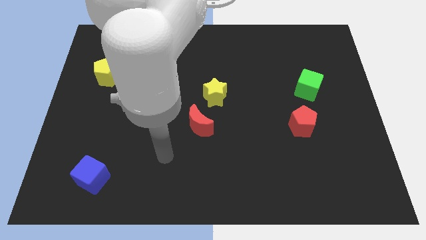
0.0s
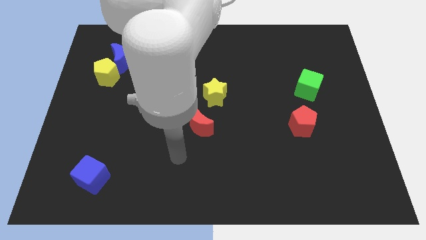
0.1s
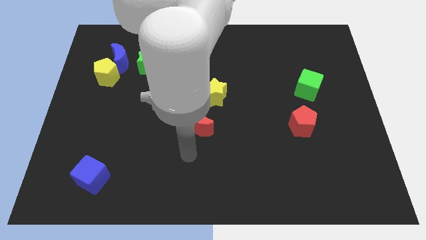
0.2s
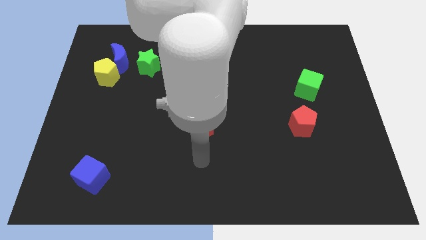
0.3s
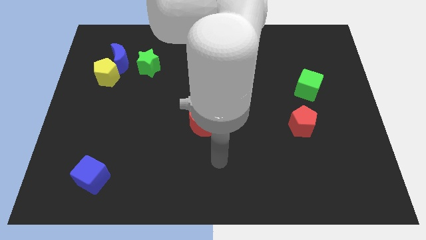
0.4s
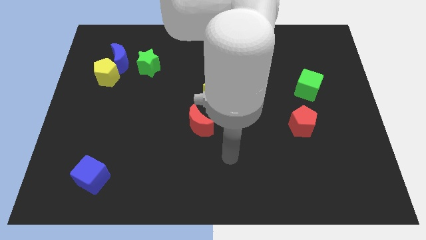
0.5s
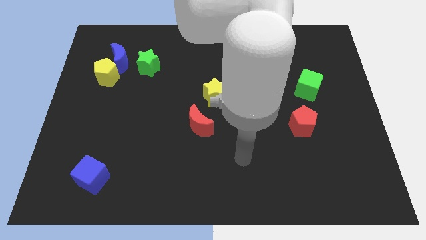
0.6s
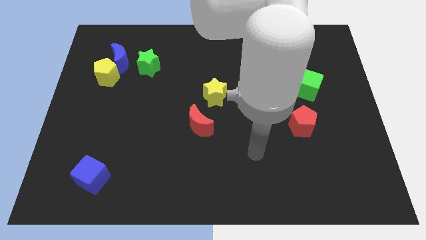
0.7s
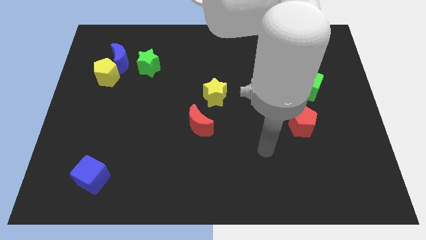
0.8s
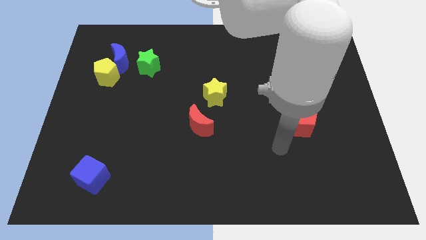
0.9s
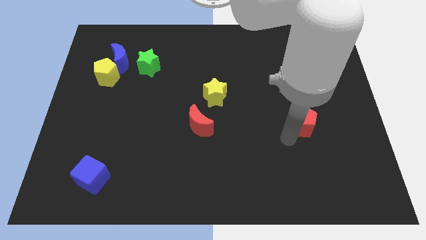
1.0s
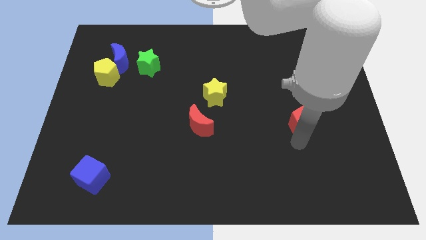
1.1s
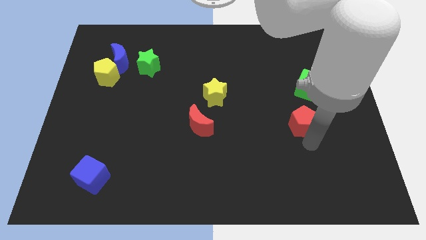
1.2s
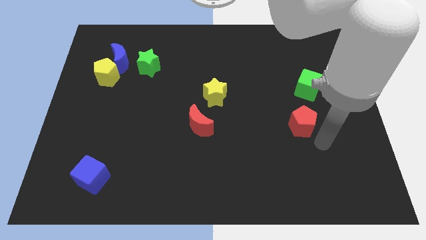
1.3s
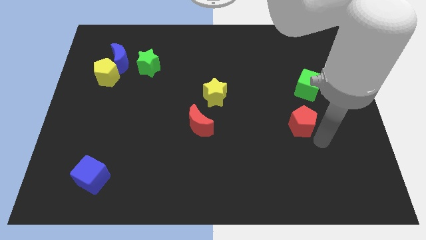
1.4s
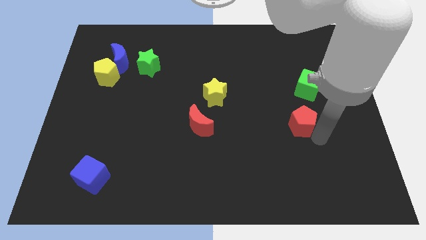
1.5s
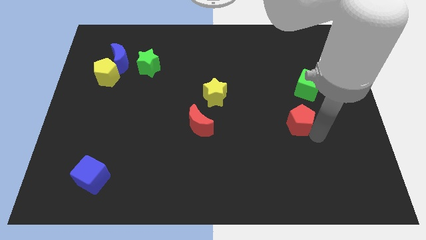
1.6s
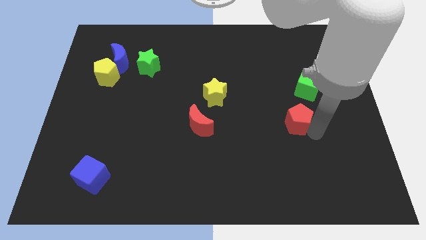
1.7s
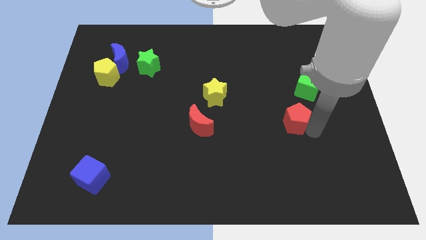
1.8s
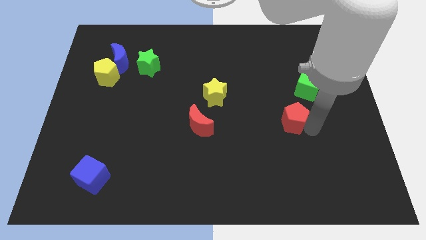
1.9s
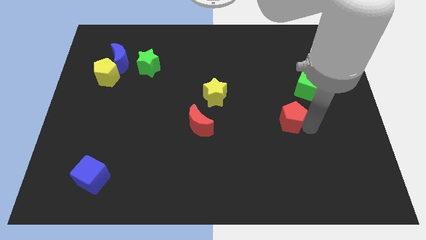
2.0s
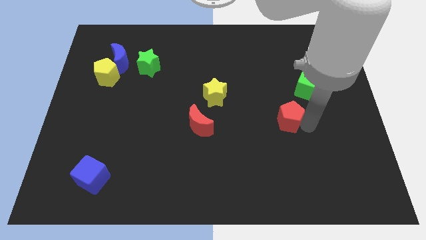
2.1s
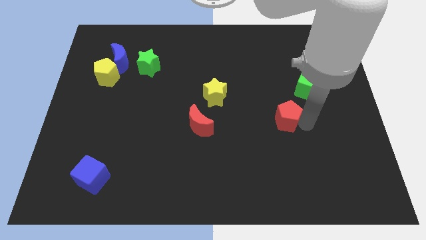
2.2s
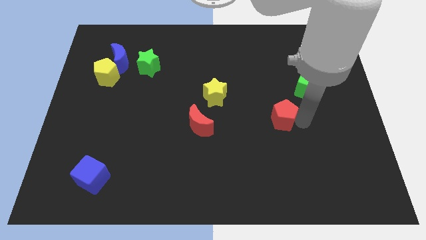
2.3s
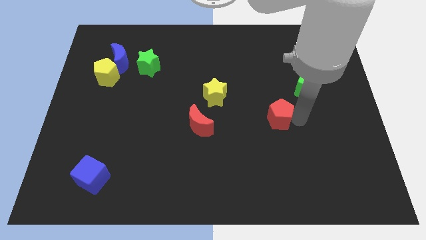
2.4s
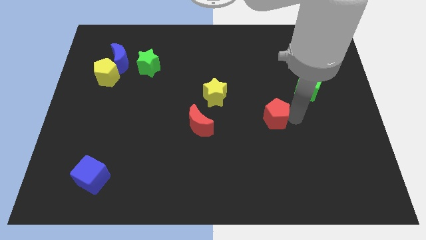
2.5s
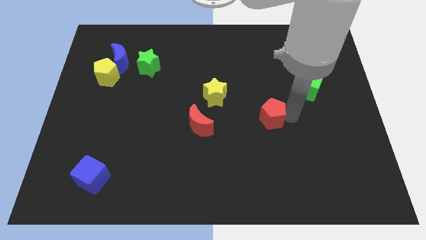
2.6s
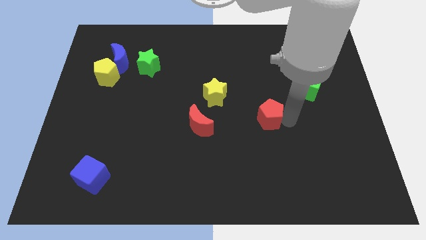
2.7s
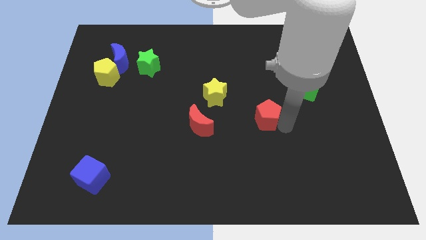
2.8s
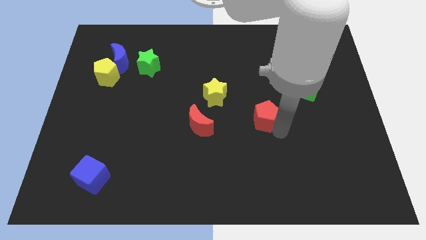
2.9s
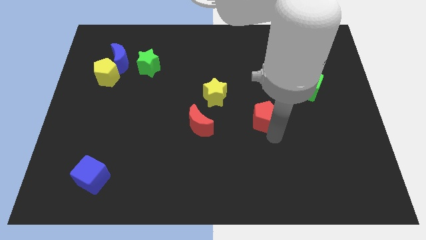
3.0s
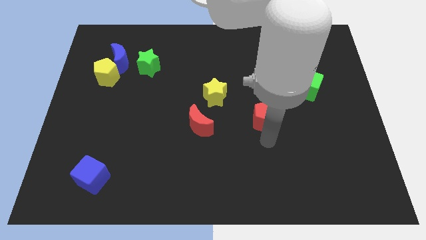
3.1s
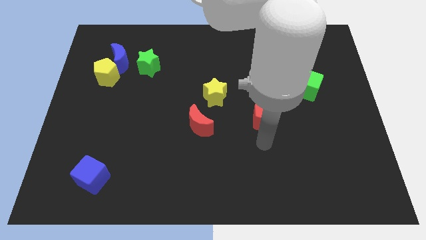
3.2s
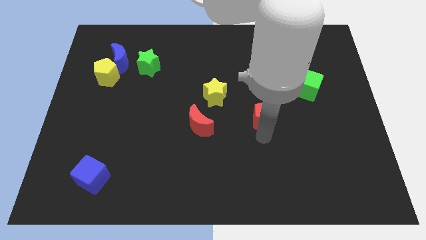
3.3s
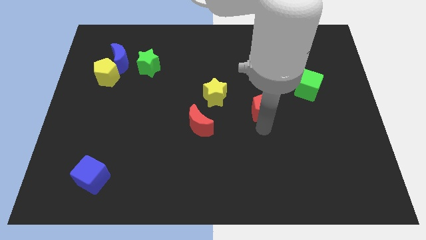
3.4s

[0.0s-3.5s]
push the red pentagon diagonally upwards and left a little bit

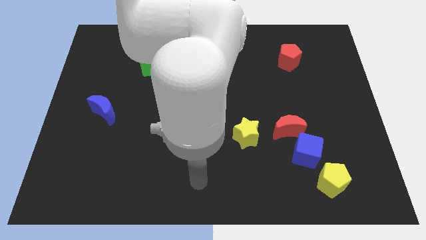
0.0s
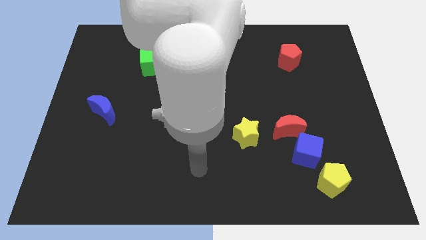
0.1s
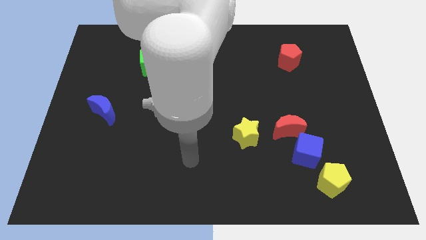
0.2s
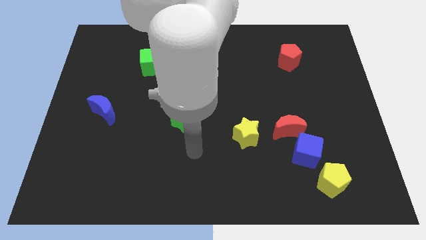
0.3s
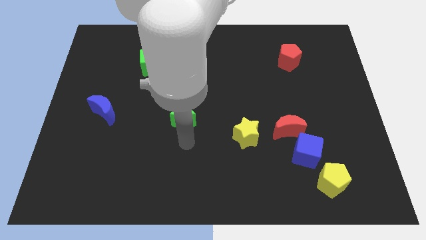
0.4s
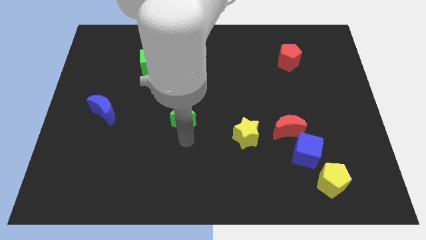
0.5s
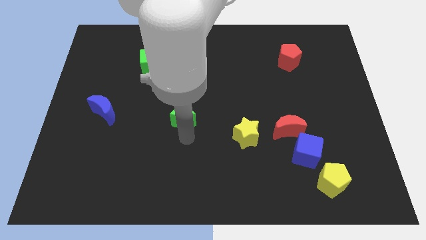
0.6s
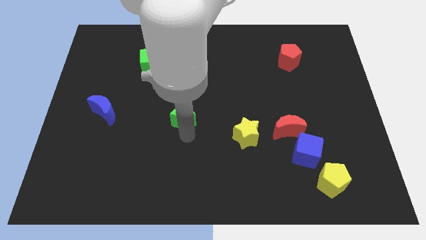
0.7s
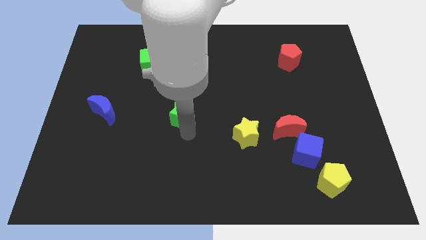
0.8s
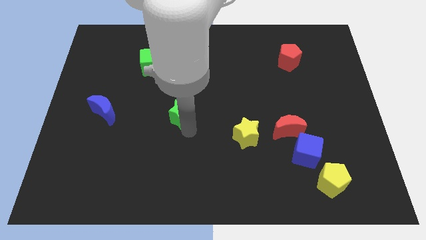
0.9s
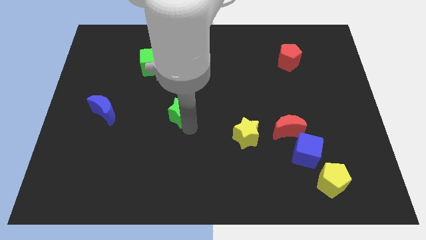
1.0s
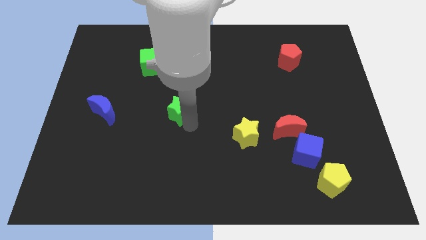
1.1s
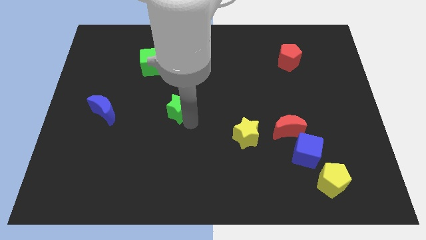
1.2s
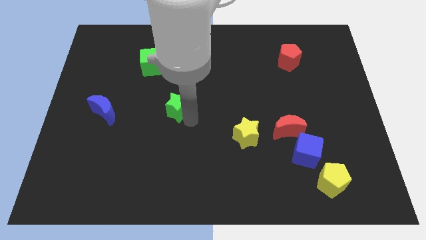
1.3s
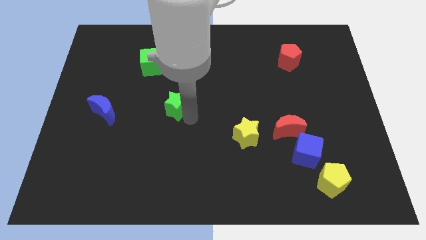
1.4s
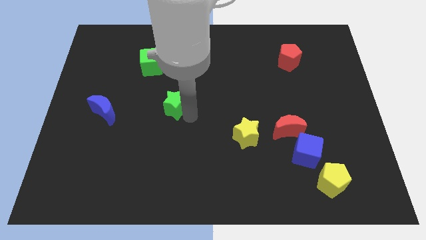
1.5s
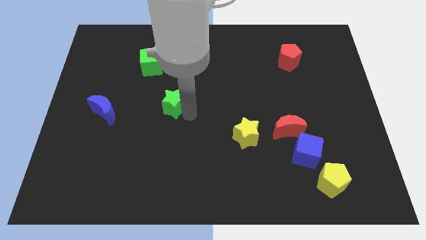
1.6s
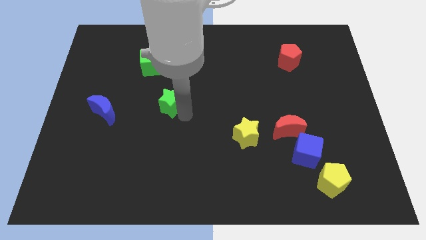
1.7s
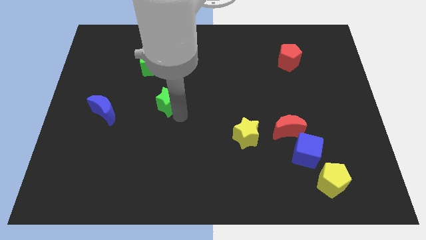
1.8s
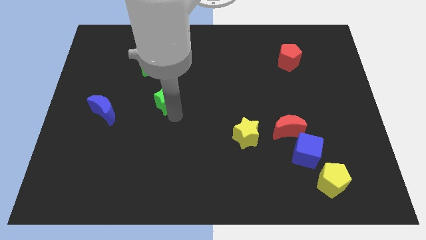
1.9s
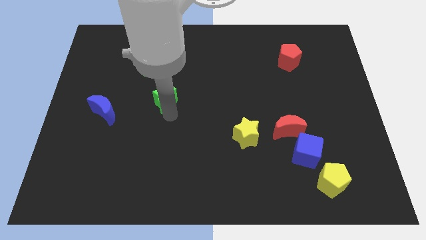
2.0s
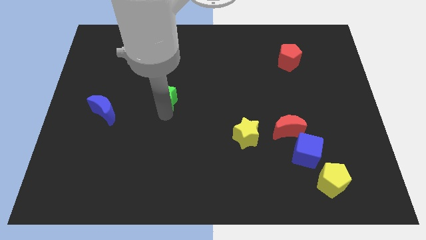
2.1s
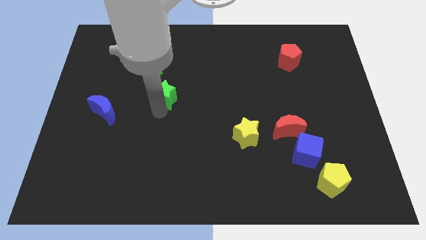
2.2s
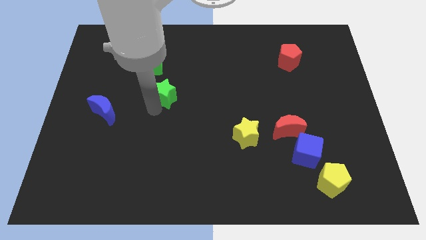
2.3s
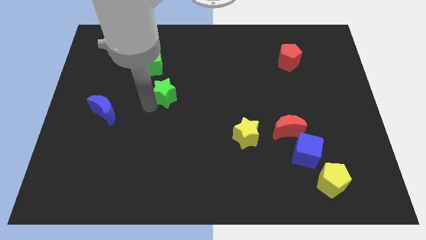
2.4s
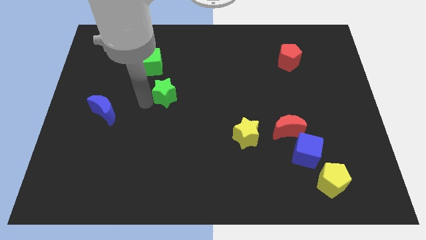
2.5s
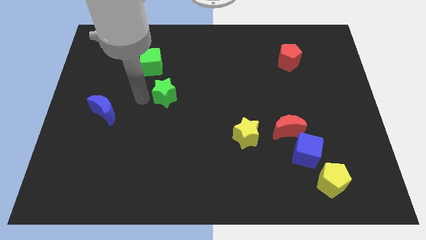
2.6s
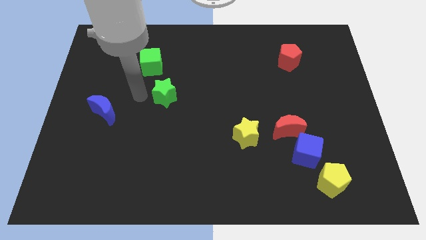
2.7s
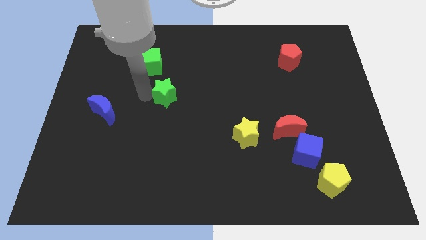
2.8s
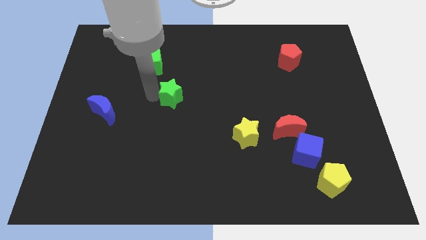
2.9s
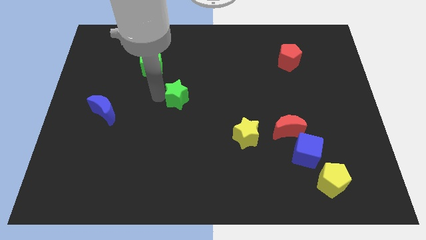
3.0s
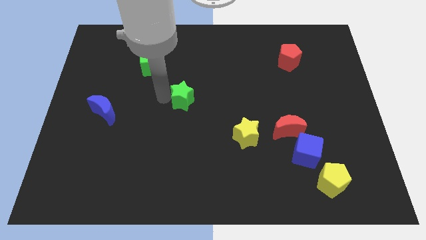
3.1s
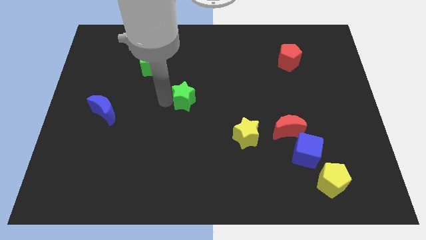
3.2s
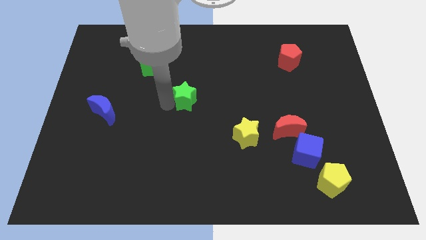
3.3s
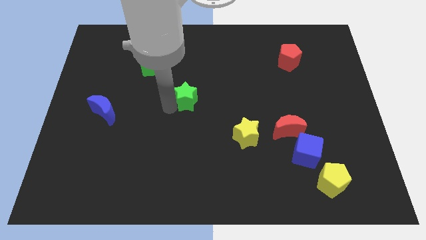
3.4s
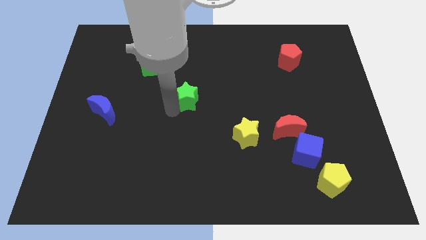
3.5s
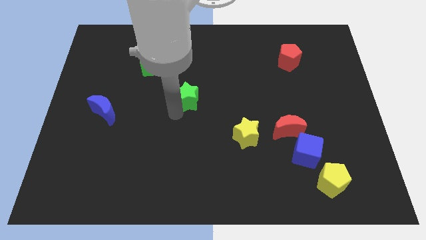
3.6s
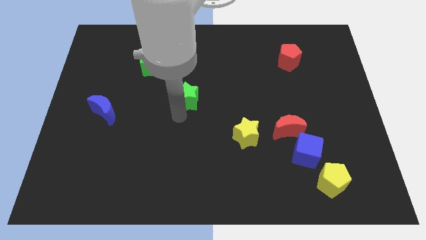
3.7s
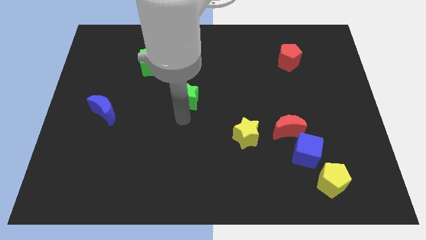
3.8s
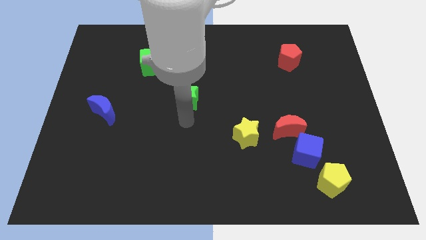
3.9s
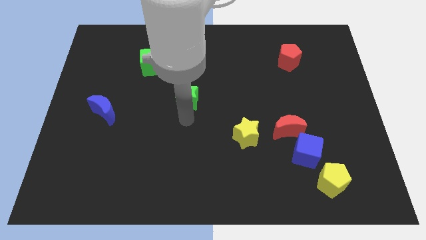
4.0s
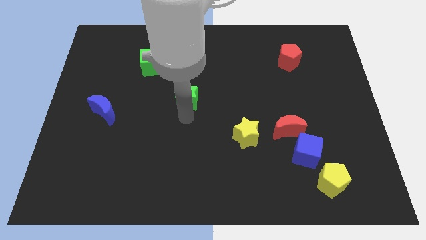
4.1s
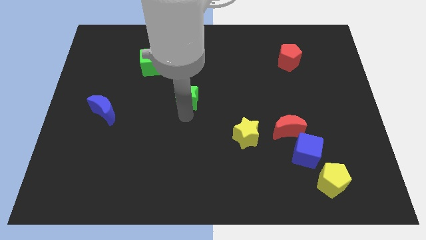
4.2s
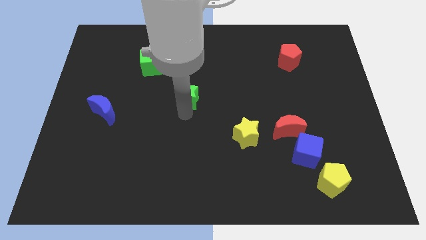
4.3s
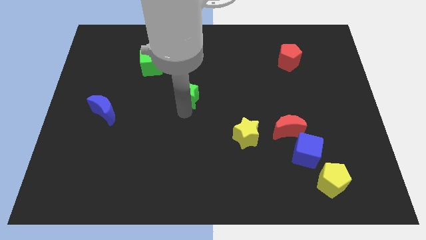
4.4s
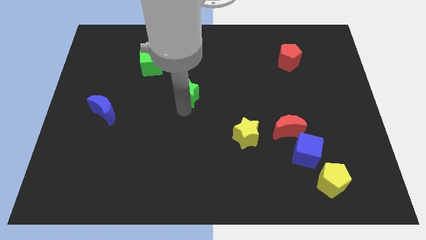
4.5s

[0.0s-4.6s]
move the green star up a bit

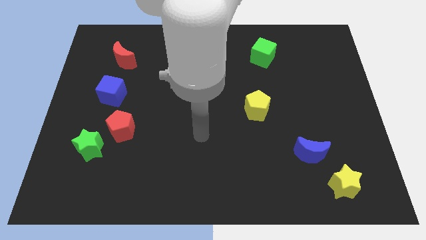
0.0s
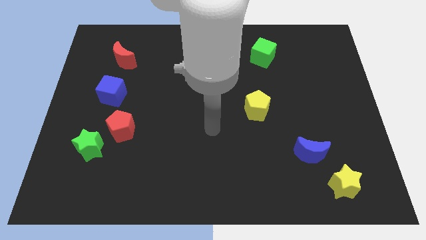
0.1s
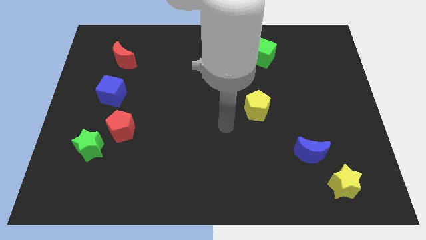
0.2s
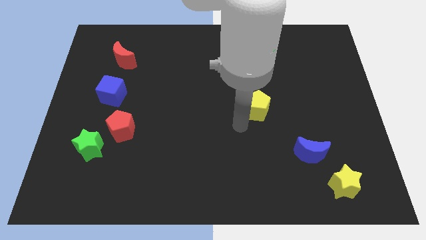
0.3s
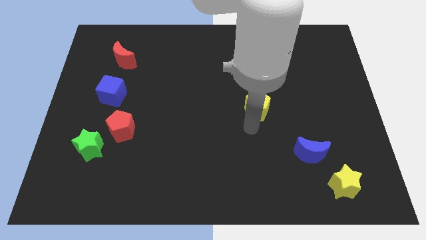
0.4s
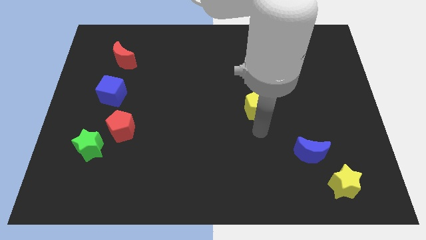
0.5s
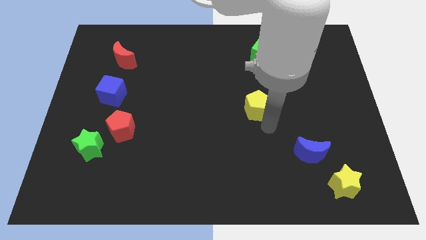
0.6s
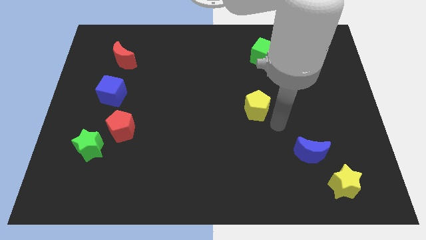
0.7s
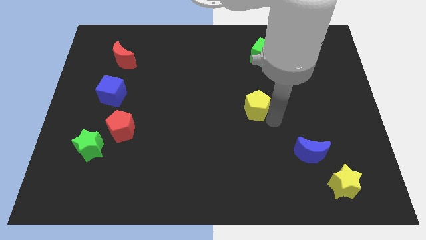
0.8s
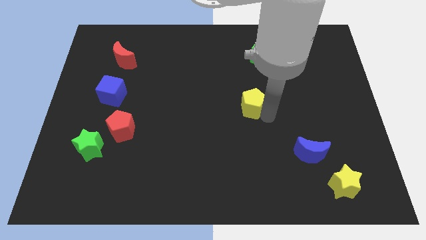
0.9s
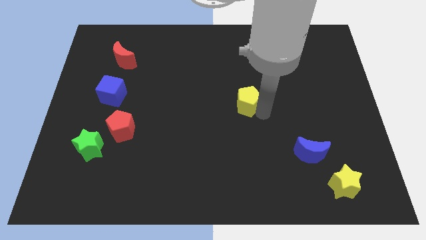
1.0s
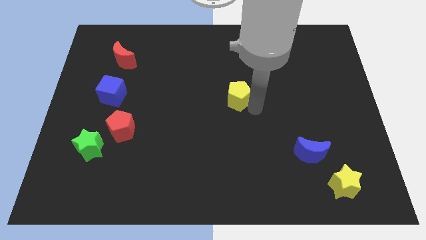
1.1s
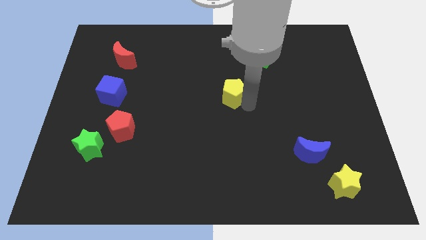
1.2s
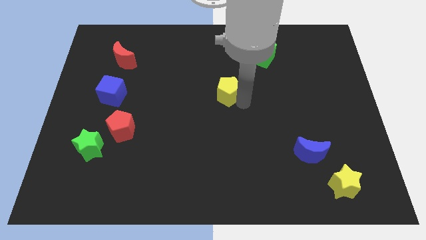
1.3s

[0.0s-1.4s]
slightly slide the yellow pentagon up and to the left diagonally
